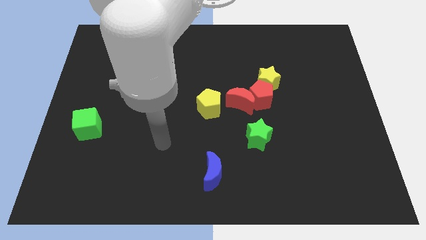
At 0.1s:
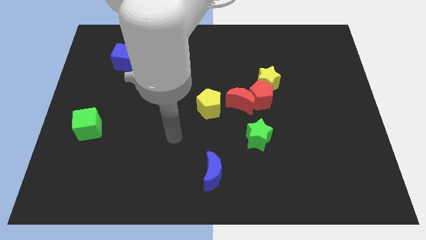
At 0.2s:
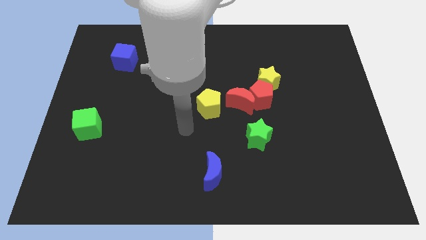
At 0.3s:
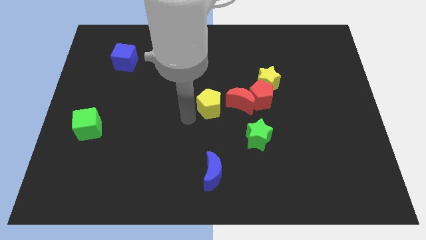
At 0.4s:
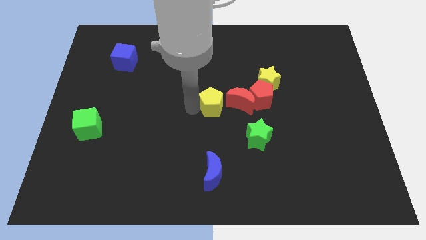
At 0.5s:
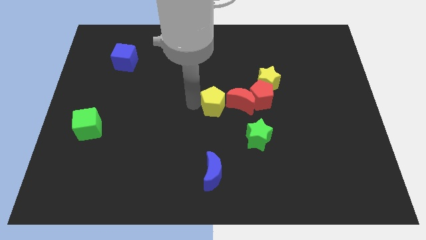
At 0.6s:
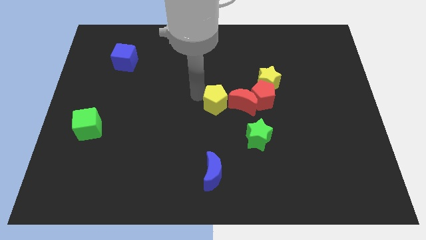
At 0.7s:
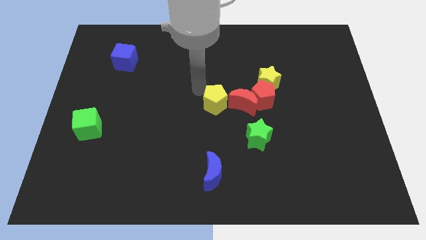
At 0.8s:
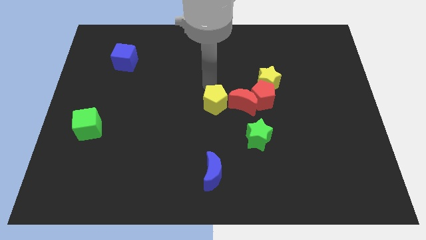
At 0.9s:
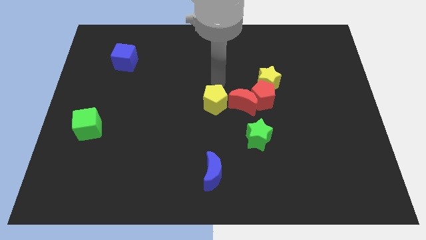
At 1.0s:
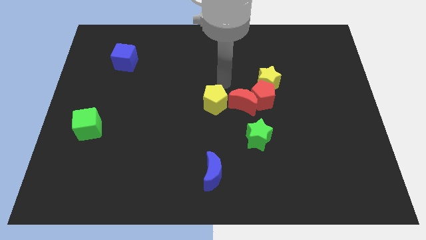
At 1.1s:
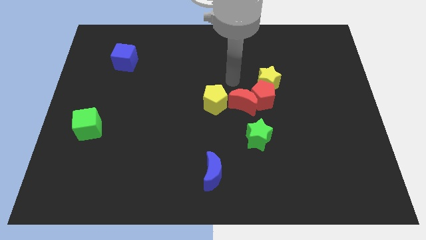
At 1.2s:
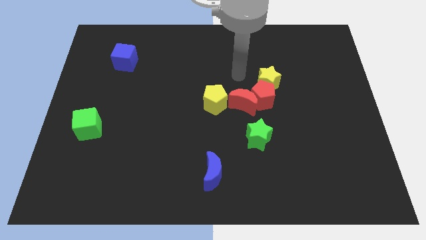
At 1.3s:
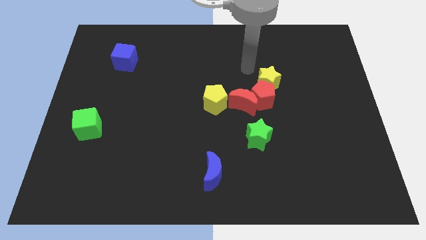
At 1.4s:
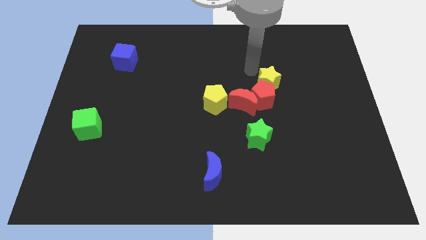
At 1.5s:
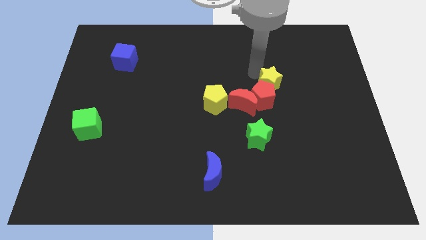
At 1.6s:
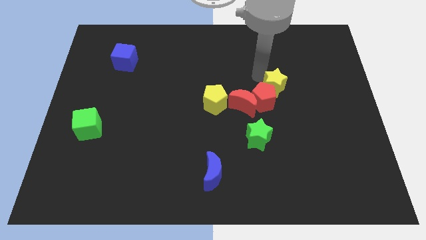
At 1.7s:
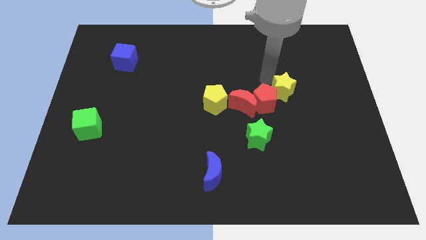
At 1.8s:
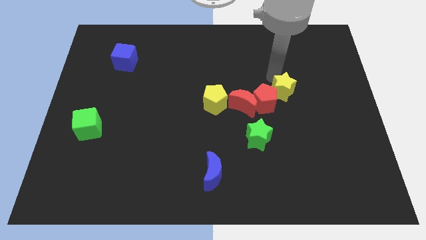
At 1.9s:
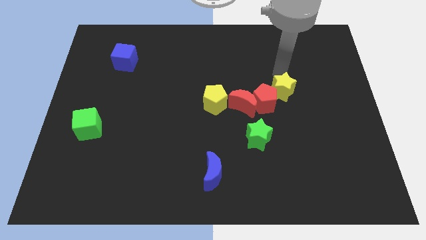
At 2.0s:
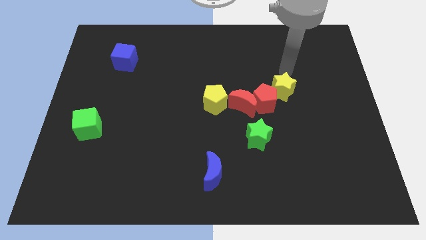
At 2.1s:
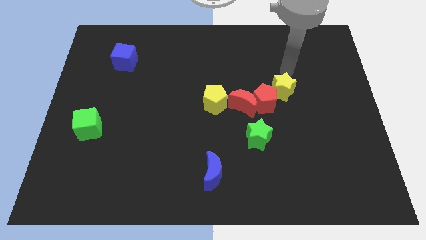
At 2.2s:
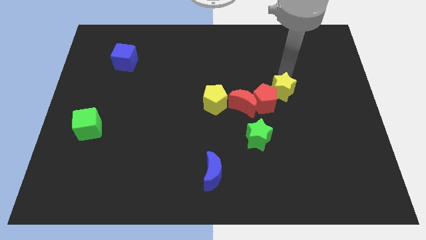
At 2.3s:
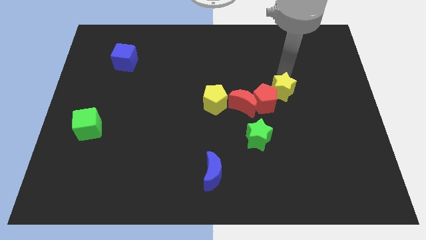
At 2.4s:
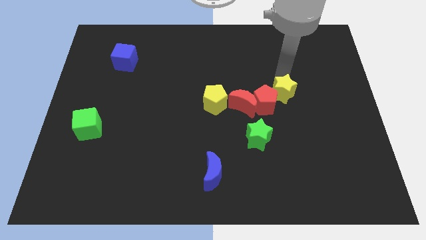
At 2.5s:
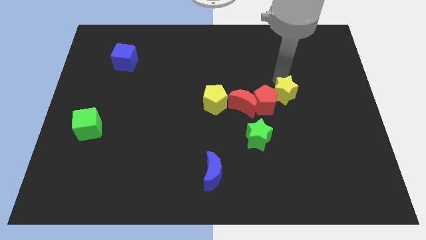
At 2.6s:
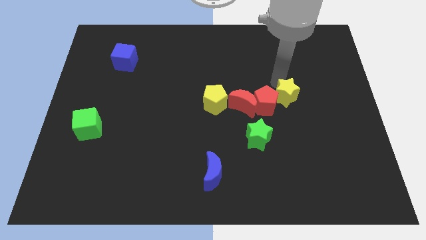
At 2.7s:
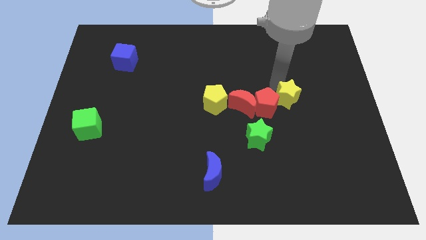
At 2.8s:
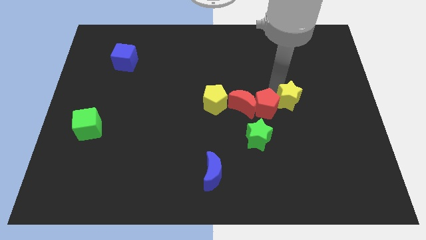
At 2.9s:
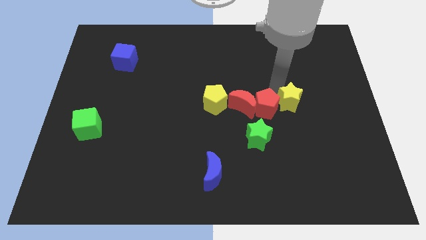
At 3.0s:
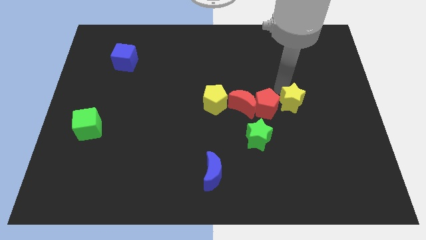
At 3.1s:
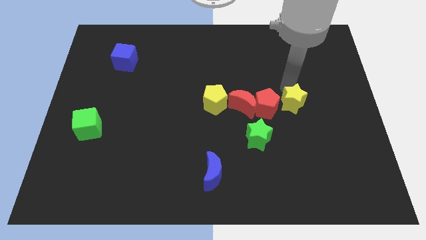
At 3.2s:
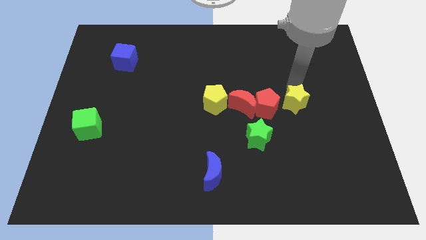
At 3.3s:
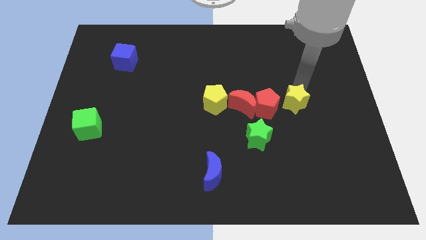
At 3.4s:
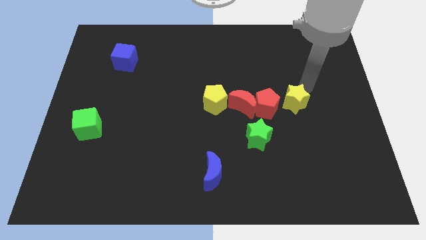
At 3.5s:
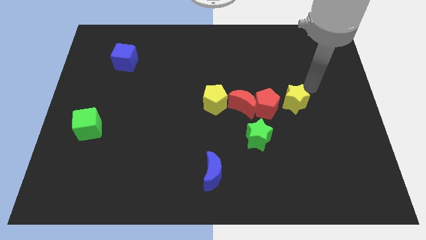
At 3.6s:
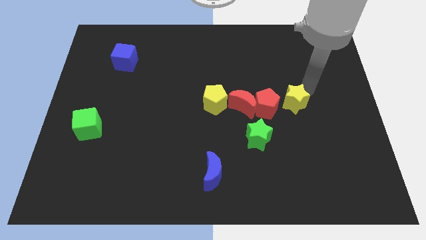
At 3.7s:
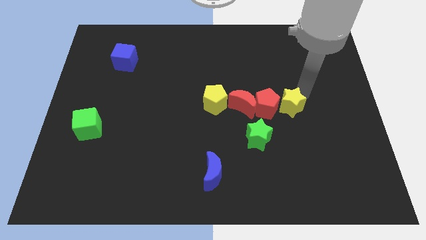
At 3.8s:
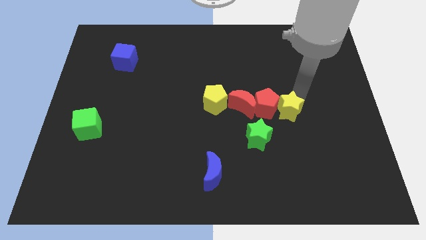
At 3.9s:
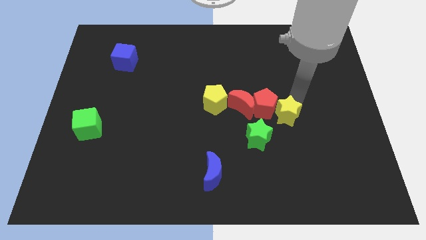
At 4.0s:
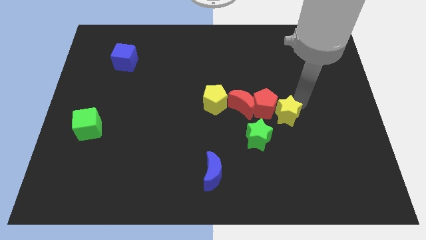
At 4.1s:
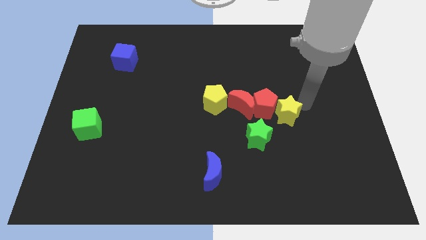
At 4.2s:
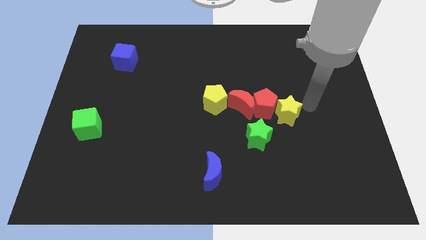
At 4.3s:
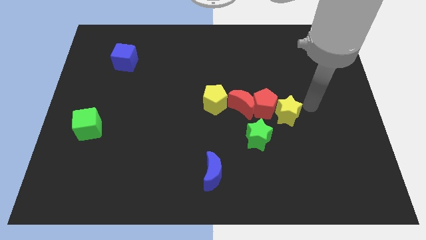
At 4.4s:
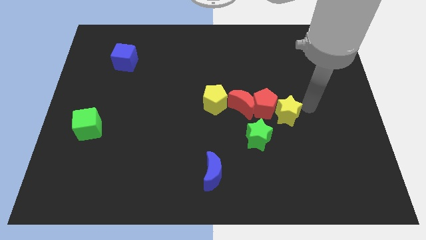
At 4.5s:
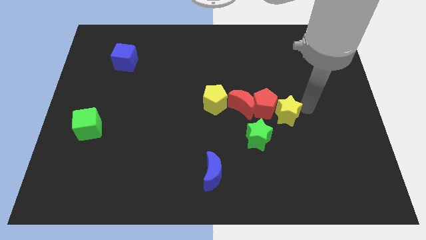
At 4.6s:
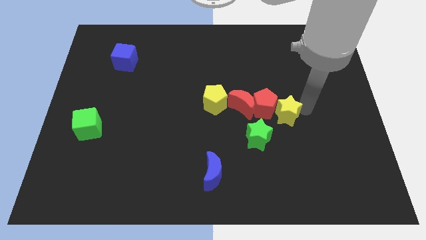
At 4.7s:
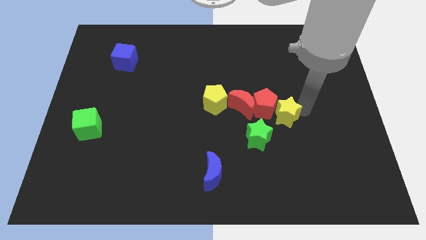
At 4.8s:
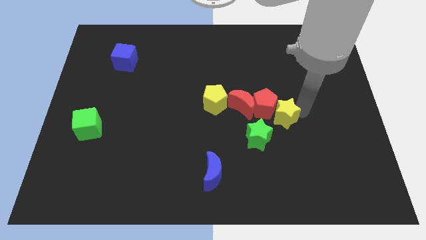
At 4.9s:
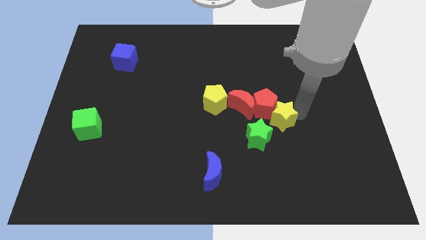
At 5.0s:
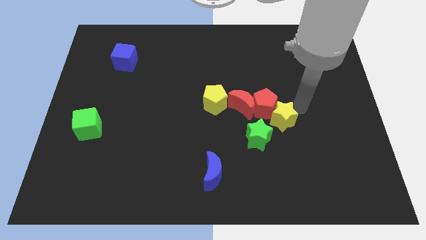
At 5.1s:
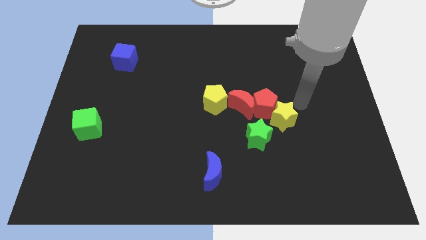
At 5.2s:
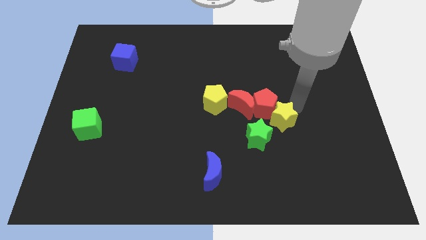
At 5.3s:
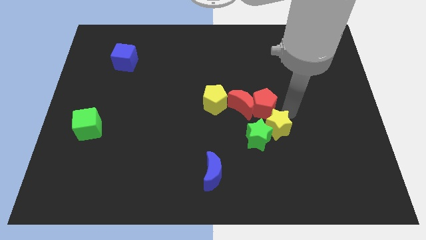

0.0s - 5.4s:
move the yellow star next to the green star
